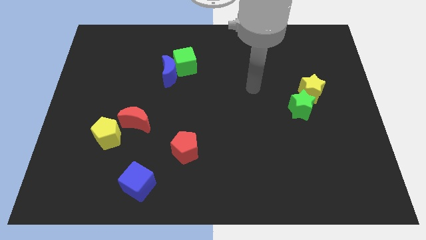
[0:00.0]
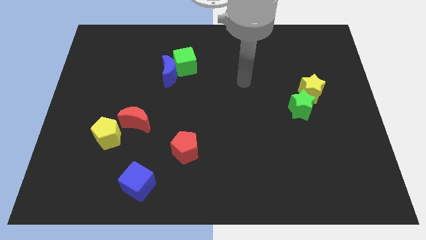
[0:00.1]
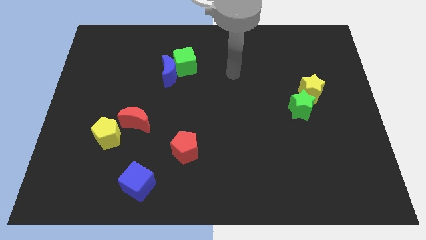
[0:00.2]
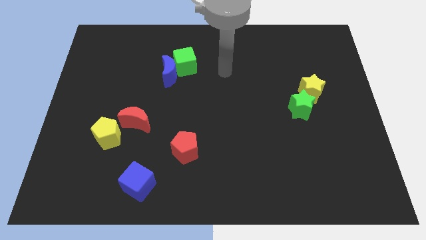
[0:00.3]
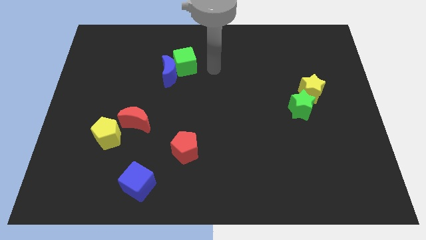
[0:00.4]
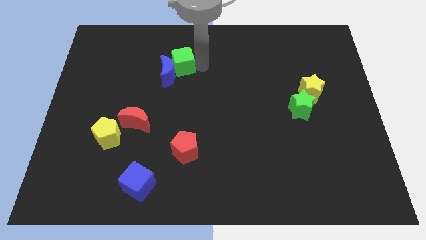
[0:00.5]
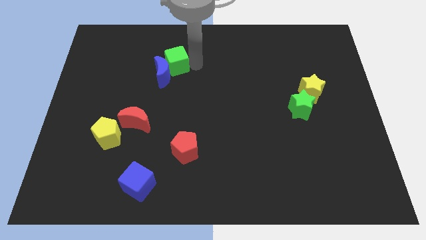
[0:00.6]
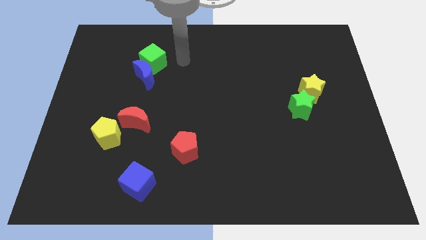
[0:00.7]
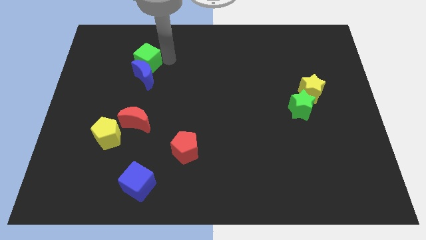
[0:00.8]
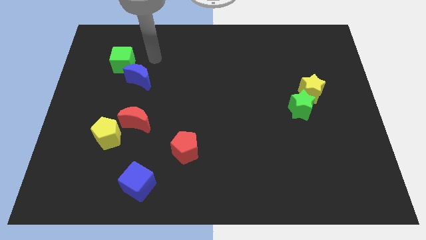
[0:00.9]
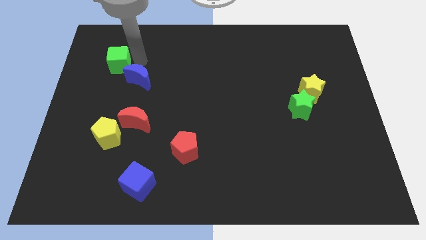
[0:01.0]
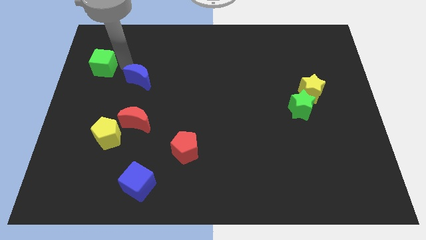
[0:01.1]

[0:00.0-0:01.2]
pull the blue moon apart from the green cube

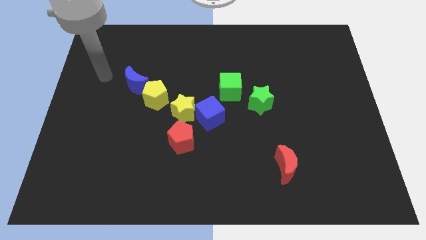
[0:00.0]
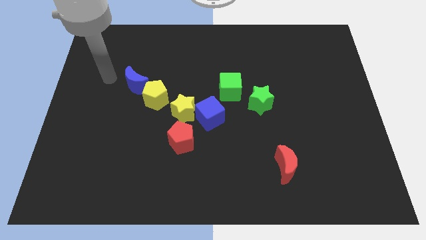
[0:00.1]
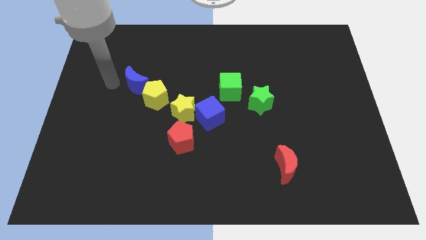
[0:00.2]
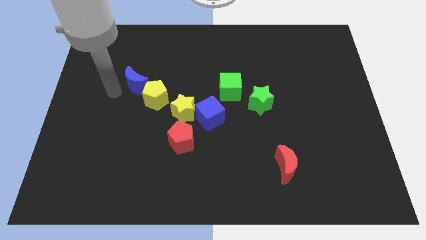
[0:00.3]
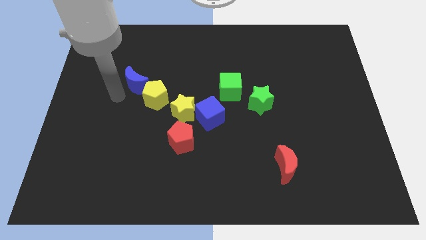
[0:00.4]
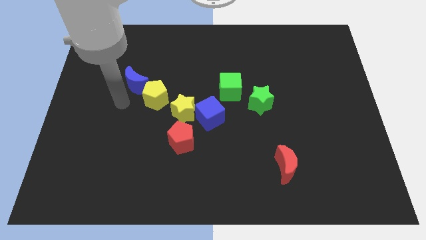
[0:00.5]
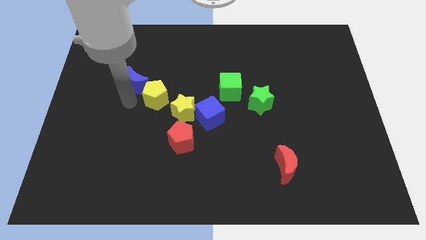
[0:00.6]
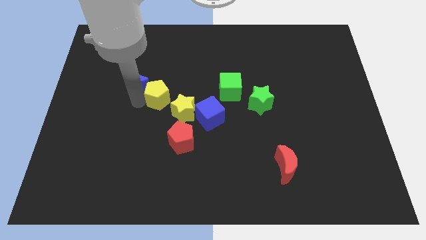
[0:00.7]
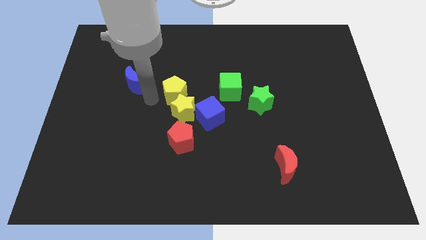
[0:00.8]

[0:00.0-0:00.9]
pull the blue moon apart from the yellow pentagon

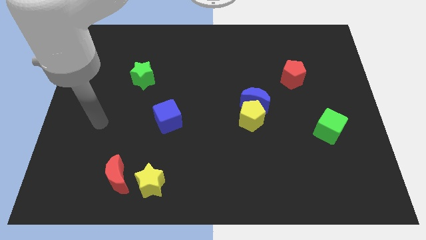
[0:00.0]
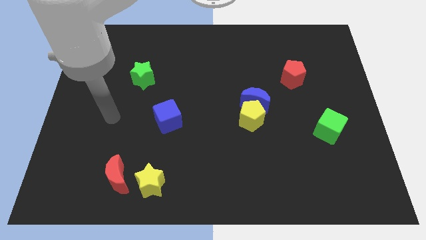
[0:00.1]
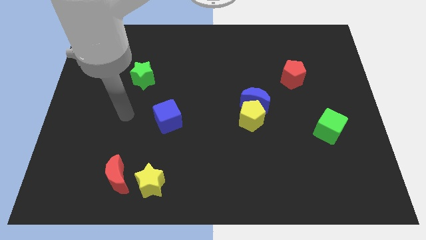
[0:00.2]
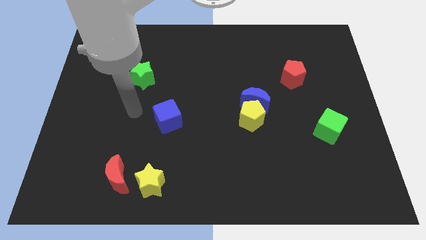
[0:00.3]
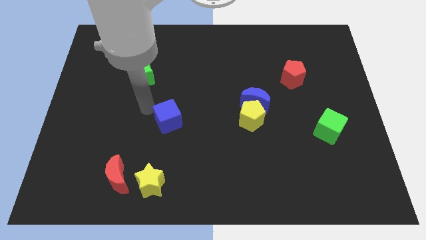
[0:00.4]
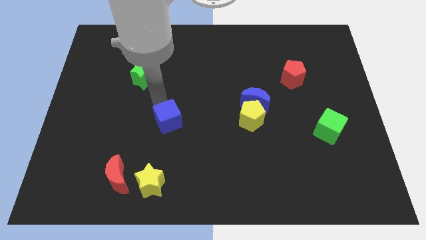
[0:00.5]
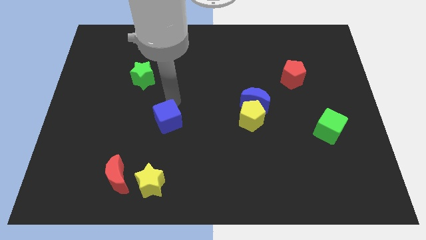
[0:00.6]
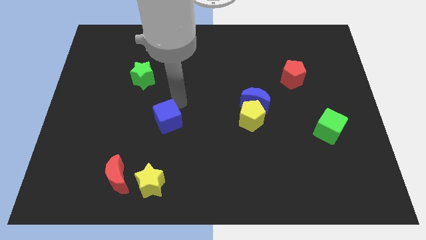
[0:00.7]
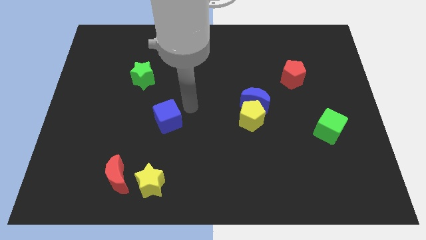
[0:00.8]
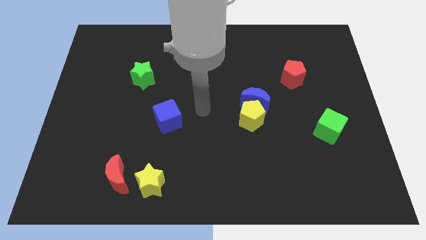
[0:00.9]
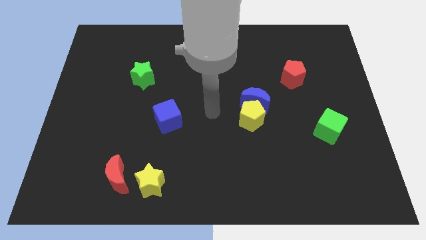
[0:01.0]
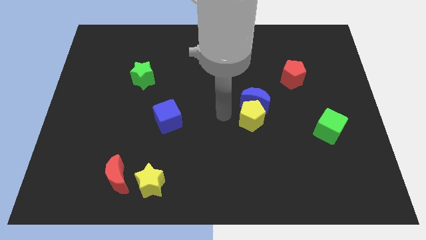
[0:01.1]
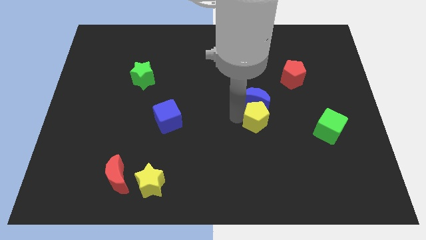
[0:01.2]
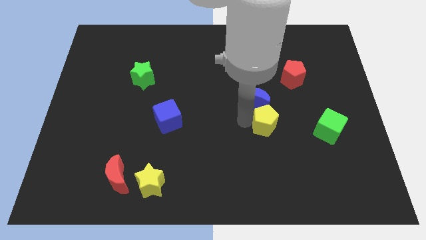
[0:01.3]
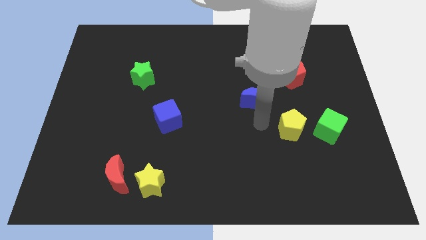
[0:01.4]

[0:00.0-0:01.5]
separate the blue moon from the yellow pentagon

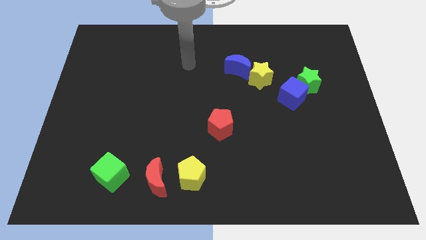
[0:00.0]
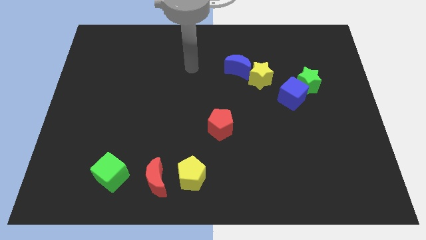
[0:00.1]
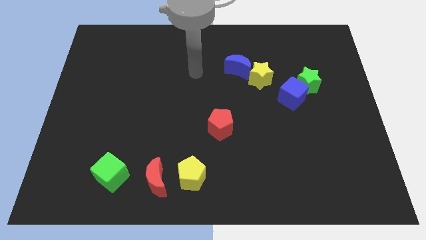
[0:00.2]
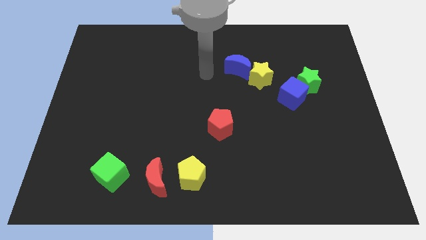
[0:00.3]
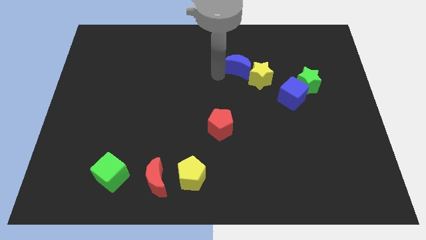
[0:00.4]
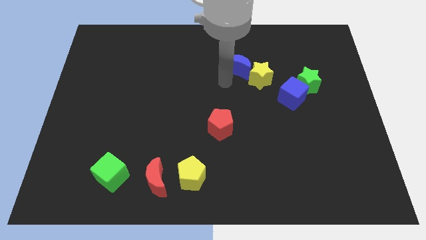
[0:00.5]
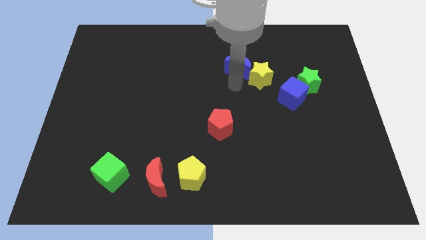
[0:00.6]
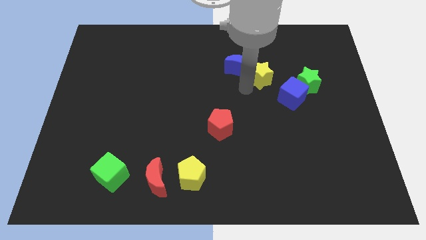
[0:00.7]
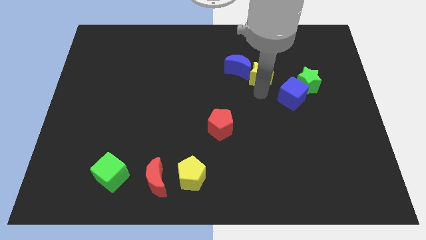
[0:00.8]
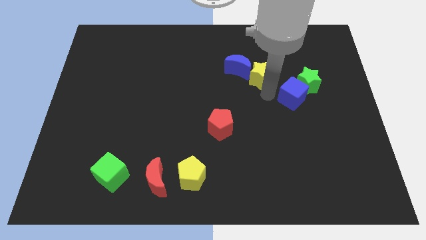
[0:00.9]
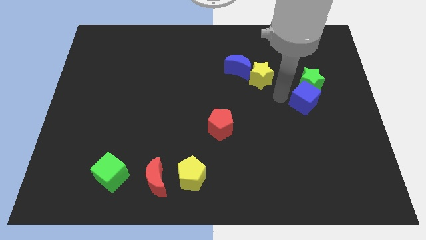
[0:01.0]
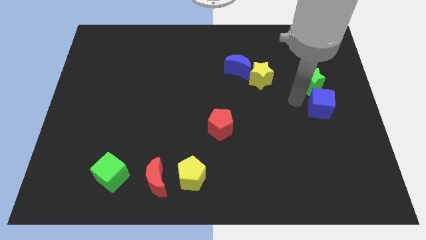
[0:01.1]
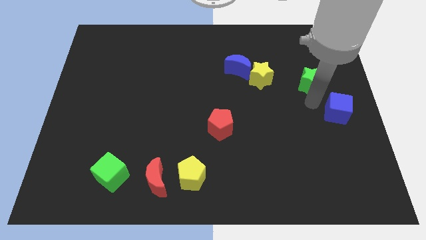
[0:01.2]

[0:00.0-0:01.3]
separate the green star from the blue cube

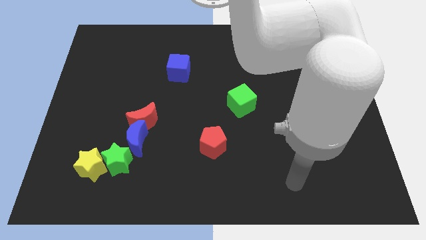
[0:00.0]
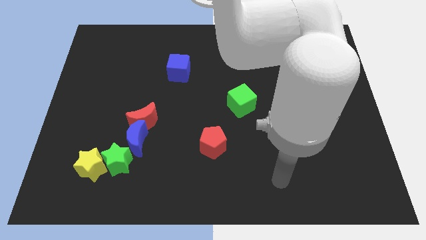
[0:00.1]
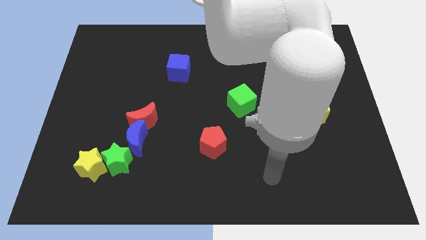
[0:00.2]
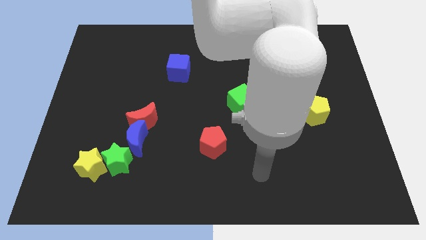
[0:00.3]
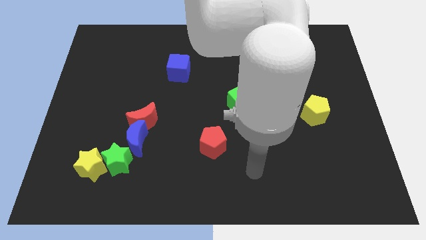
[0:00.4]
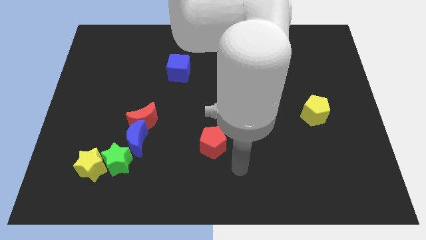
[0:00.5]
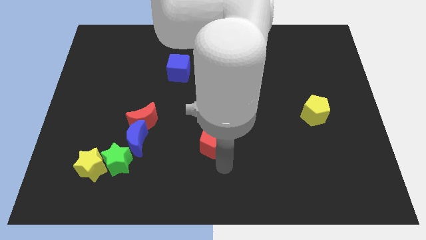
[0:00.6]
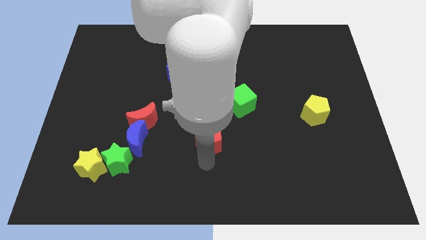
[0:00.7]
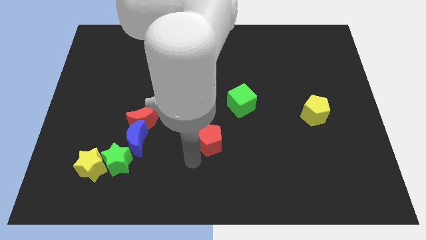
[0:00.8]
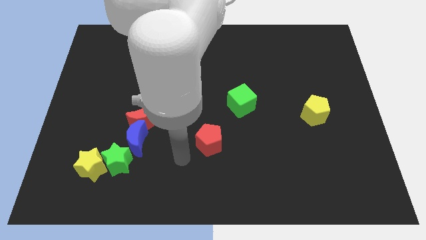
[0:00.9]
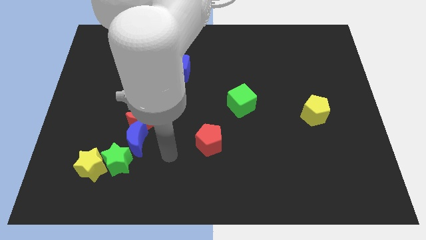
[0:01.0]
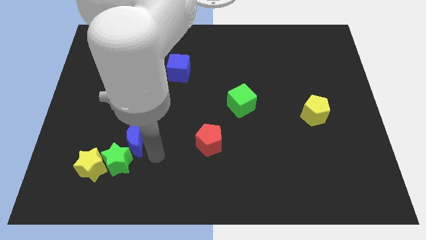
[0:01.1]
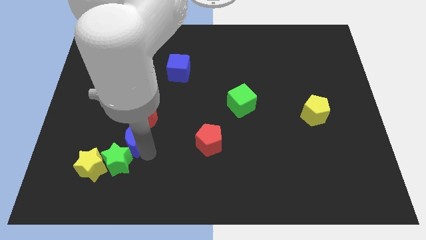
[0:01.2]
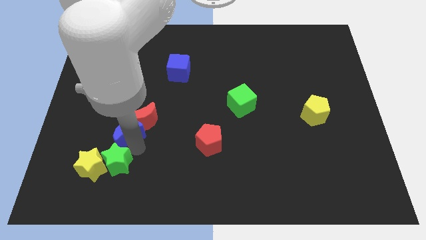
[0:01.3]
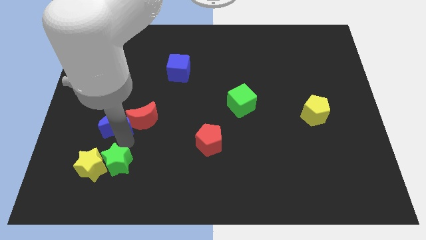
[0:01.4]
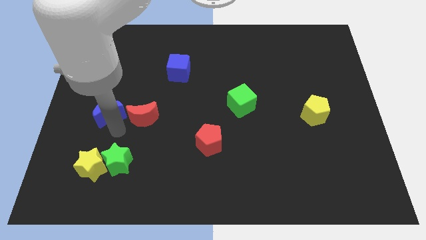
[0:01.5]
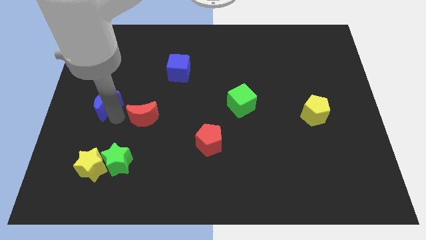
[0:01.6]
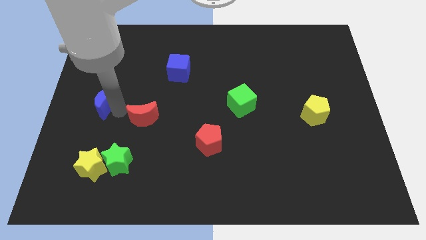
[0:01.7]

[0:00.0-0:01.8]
move the red moon away from the blue moon

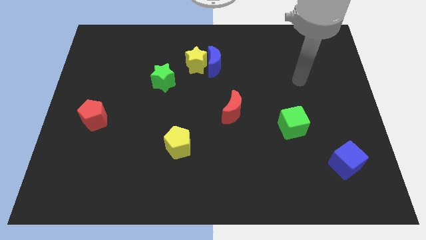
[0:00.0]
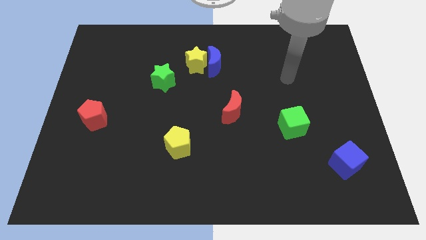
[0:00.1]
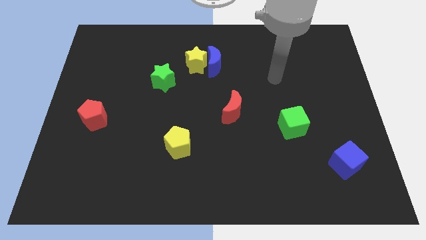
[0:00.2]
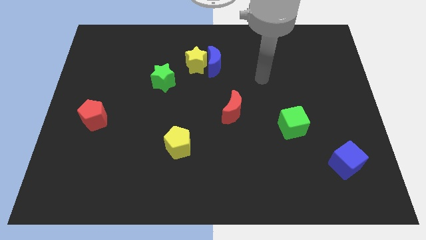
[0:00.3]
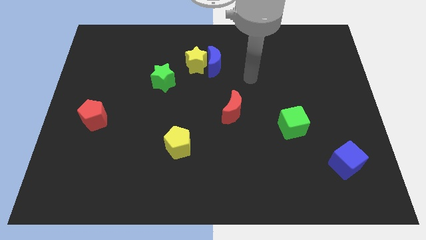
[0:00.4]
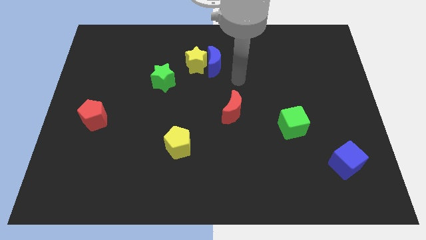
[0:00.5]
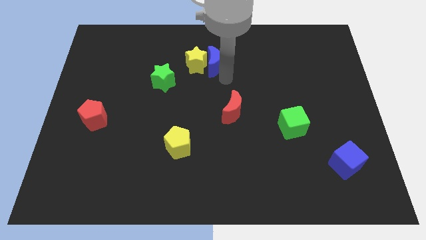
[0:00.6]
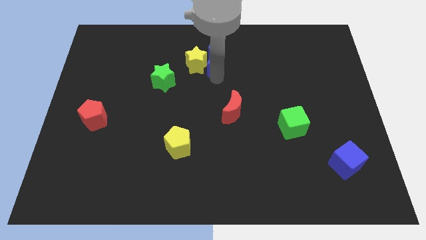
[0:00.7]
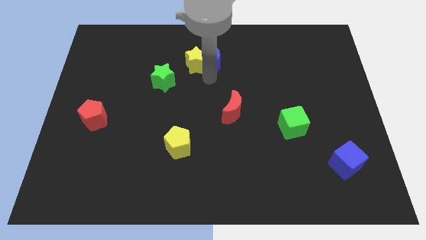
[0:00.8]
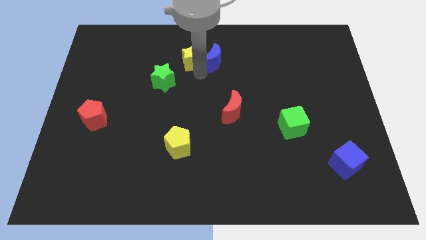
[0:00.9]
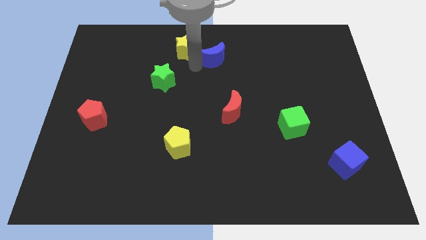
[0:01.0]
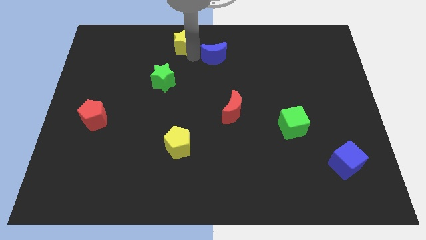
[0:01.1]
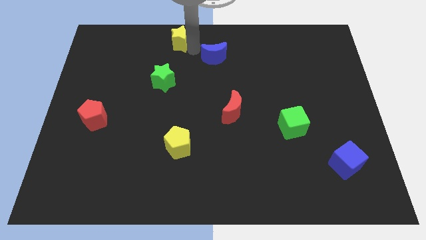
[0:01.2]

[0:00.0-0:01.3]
move the blue moon away from the yellow star

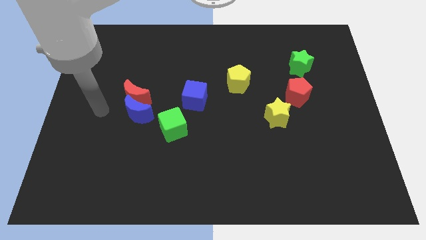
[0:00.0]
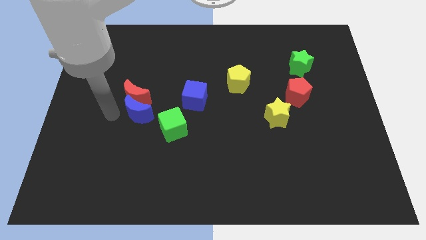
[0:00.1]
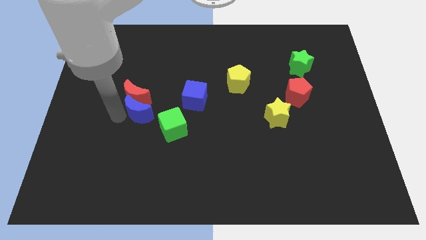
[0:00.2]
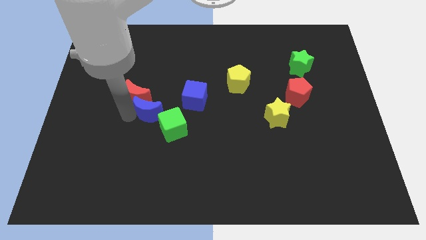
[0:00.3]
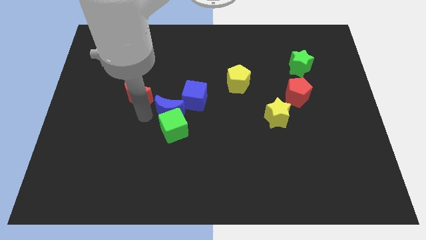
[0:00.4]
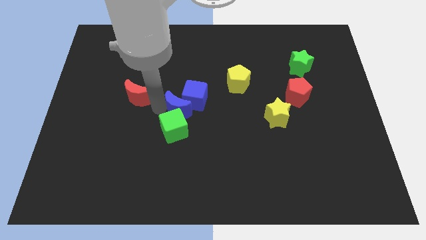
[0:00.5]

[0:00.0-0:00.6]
pull the red moon apart from the blue moon

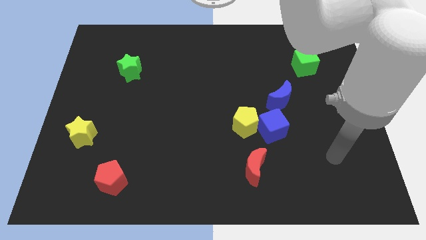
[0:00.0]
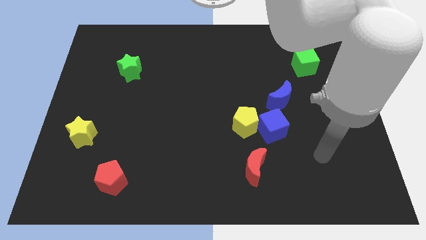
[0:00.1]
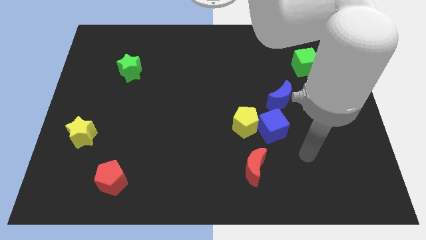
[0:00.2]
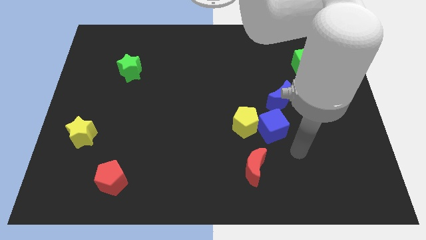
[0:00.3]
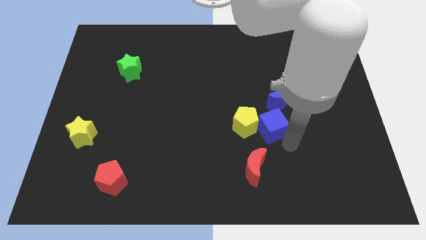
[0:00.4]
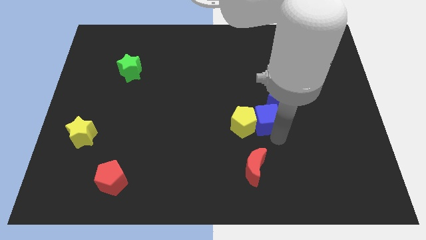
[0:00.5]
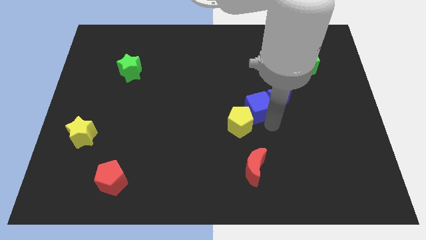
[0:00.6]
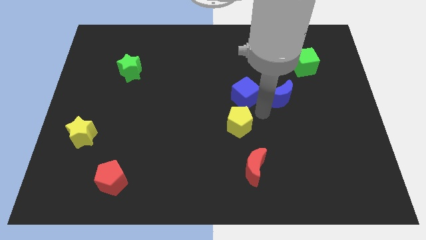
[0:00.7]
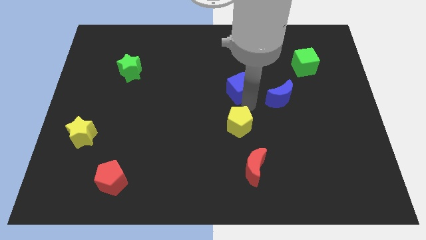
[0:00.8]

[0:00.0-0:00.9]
separate the yellow pentagon from the blue cube
